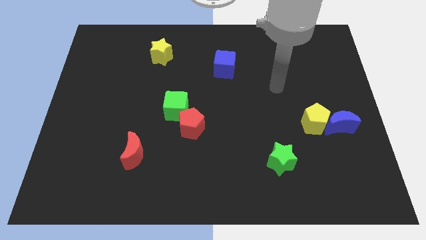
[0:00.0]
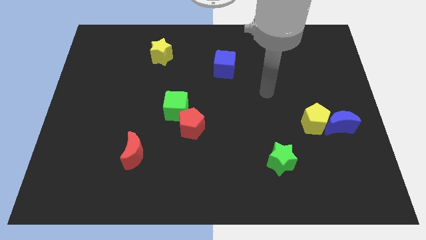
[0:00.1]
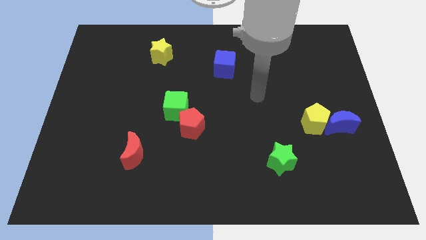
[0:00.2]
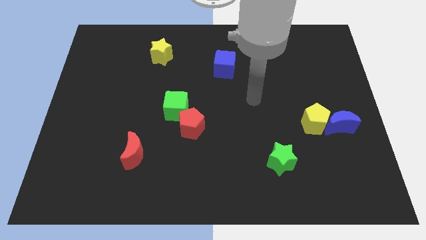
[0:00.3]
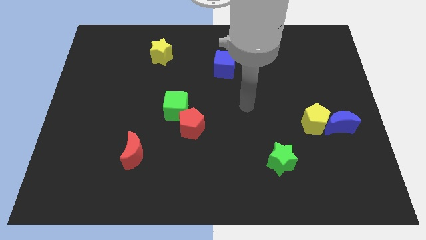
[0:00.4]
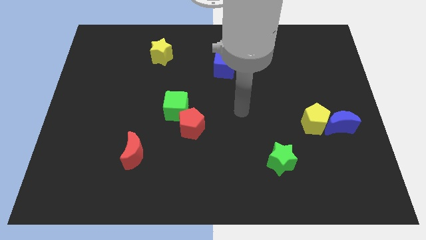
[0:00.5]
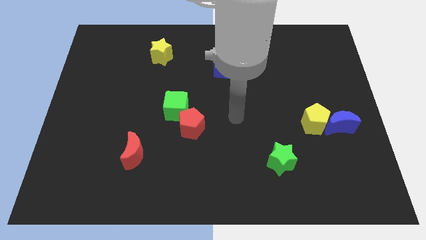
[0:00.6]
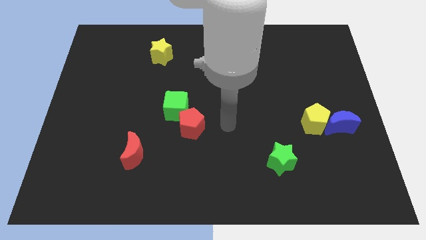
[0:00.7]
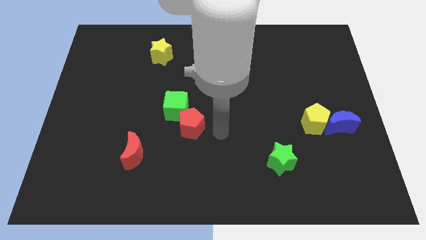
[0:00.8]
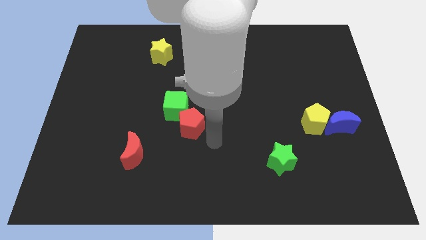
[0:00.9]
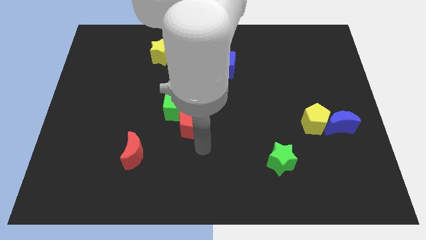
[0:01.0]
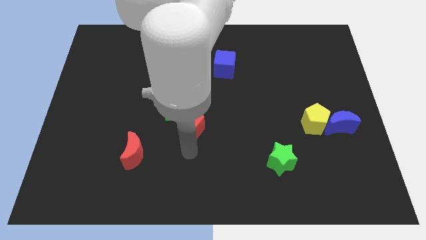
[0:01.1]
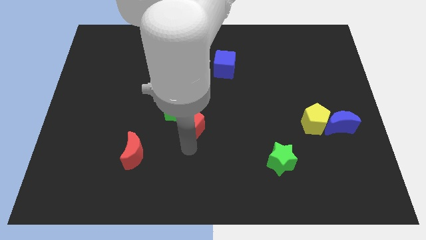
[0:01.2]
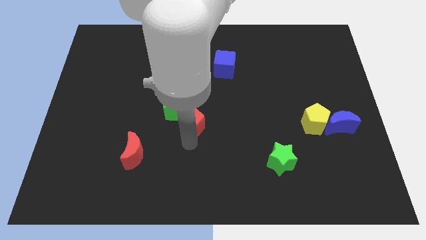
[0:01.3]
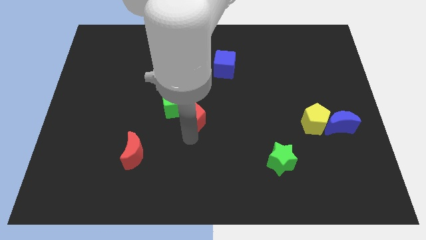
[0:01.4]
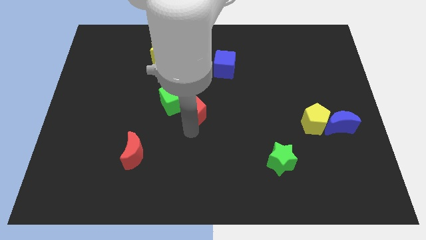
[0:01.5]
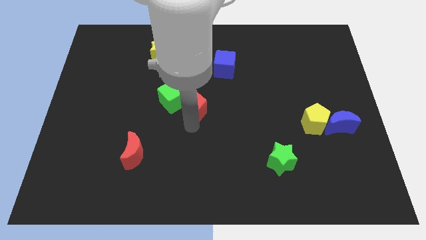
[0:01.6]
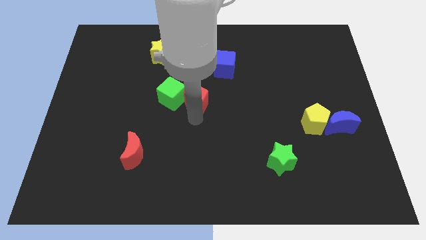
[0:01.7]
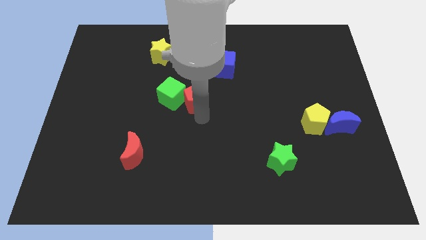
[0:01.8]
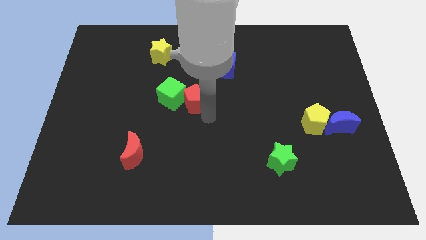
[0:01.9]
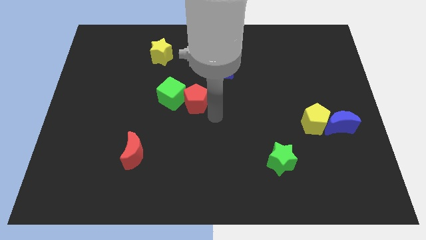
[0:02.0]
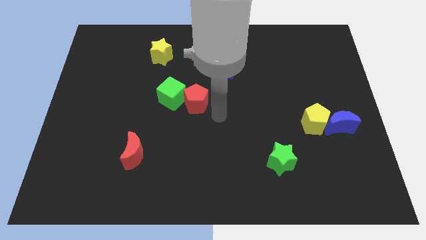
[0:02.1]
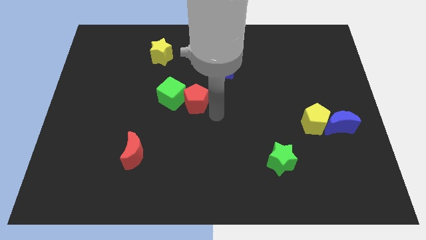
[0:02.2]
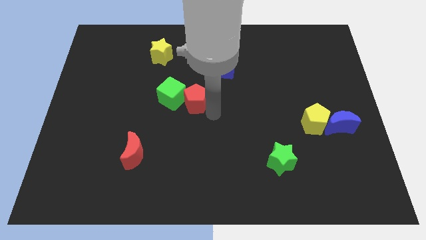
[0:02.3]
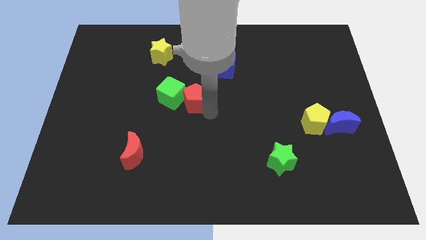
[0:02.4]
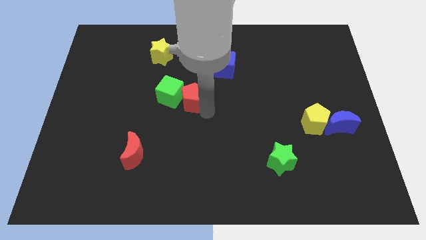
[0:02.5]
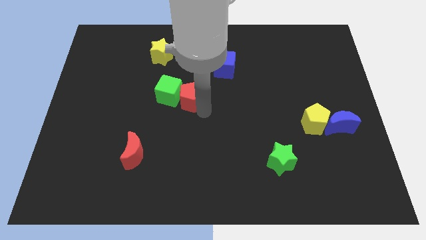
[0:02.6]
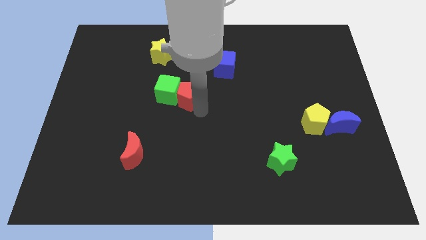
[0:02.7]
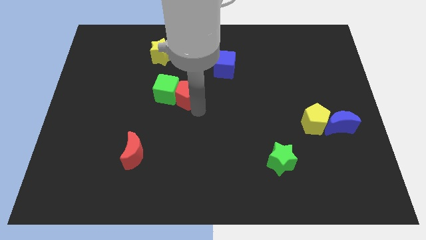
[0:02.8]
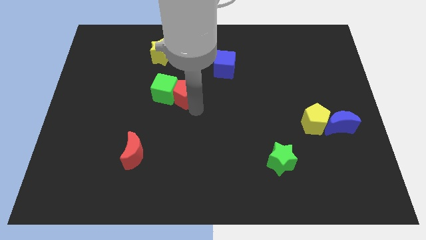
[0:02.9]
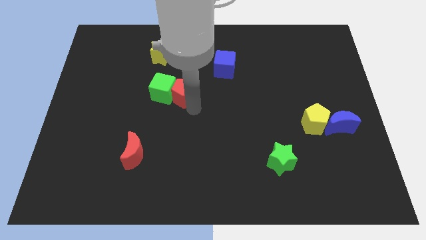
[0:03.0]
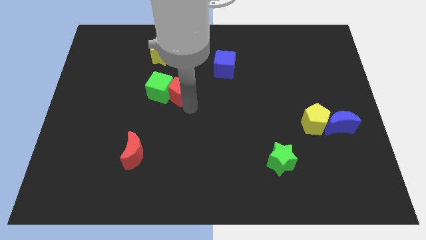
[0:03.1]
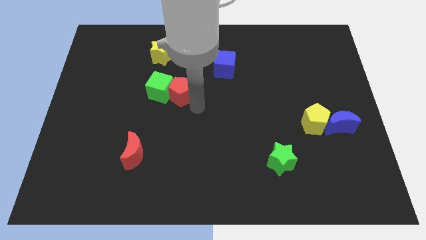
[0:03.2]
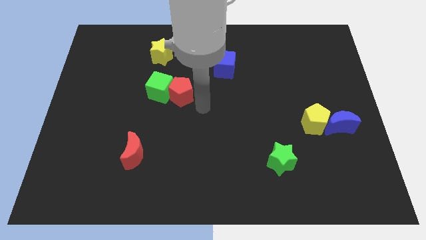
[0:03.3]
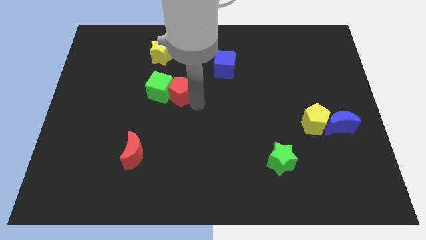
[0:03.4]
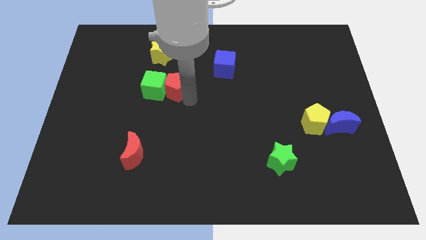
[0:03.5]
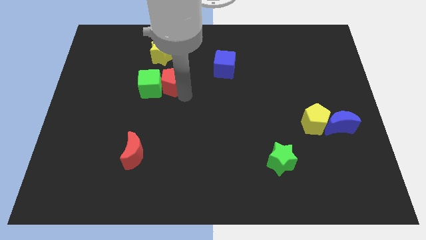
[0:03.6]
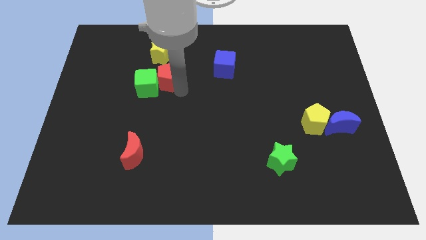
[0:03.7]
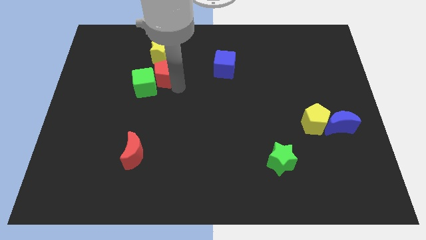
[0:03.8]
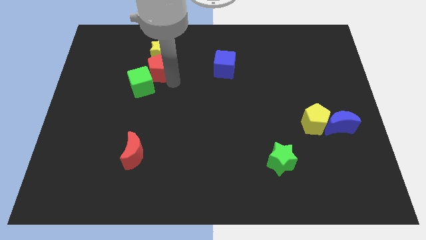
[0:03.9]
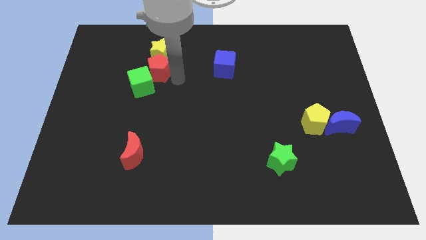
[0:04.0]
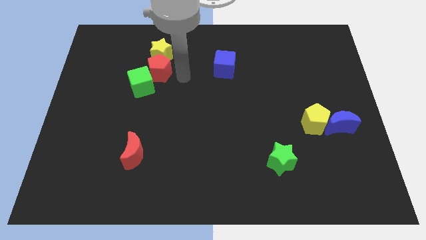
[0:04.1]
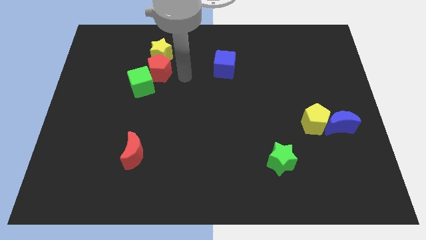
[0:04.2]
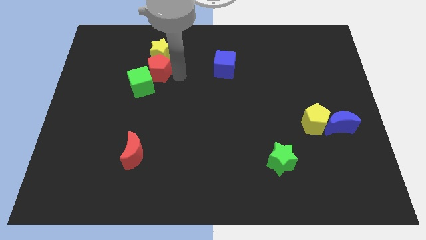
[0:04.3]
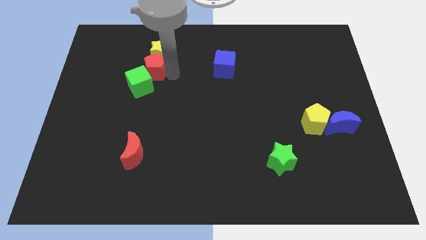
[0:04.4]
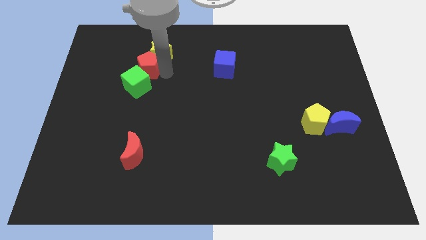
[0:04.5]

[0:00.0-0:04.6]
slide the red pentagon up and left diagonally

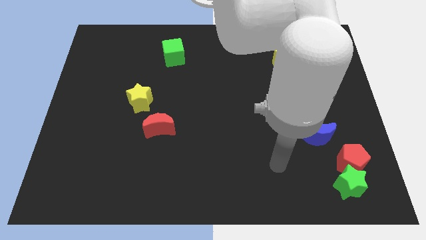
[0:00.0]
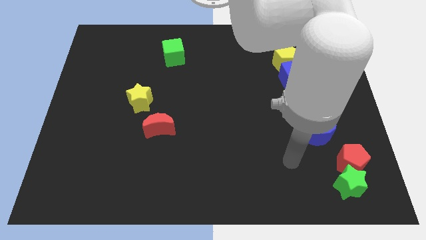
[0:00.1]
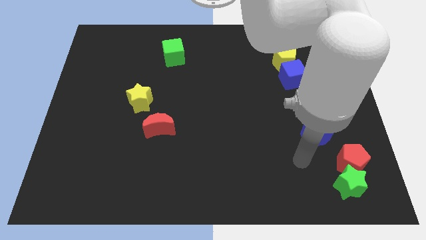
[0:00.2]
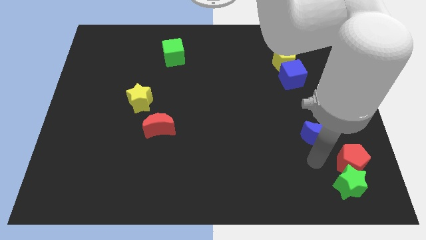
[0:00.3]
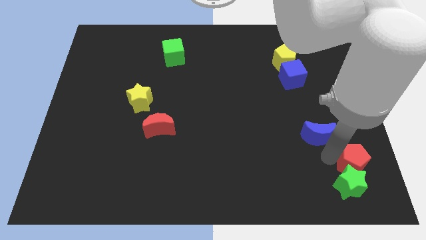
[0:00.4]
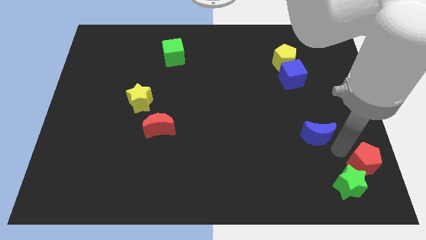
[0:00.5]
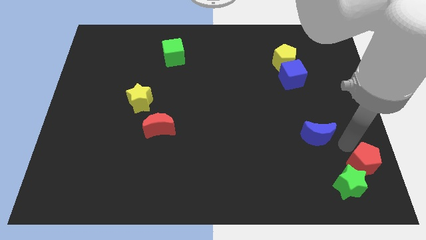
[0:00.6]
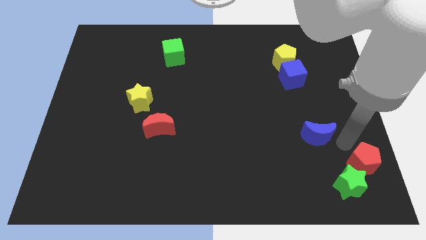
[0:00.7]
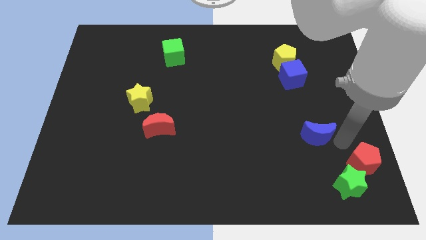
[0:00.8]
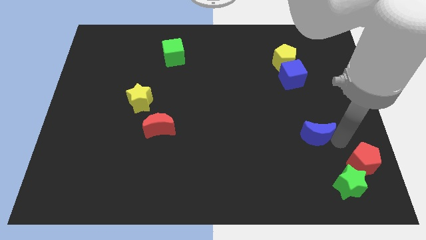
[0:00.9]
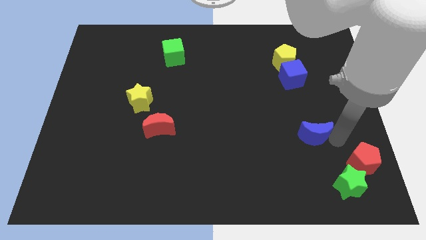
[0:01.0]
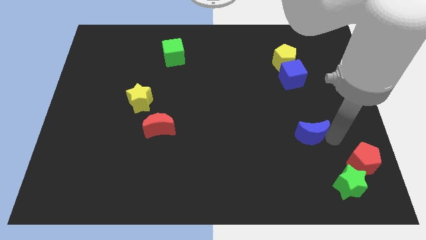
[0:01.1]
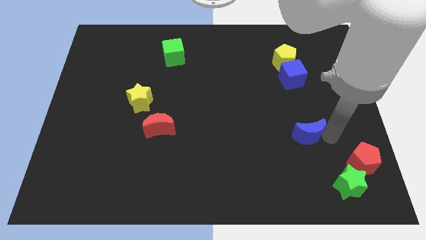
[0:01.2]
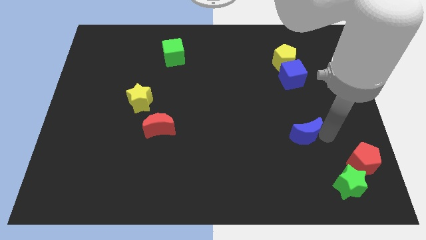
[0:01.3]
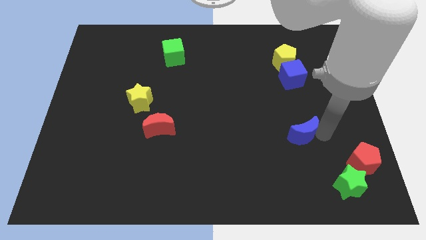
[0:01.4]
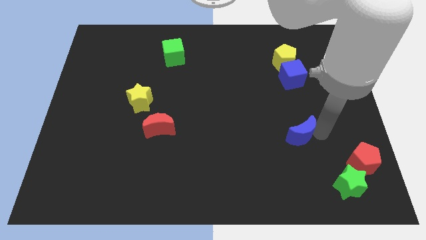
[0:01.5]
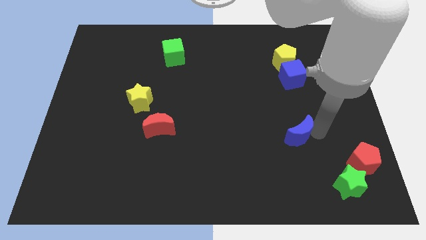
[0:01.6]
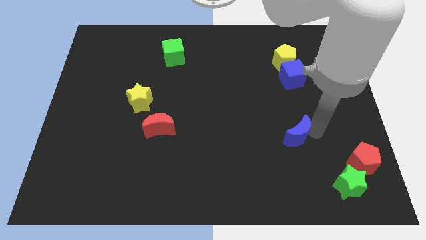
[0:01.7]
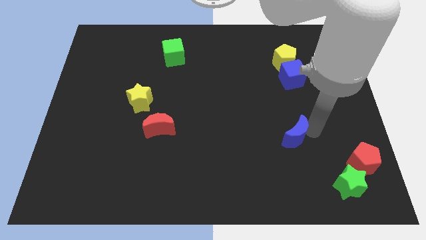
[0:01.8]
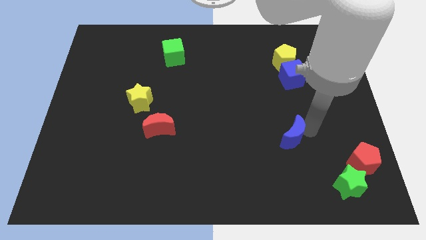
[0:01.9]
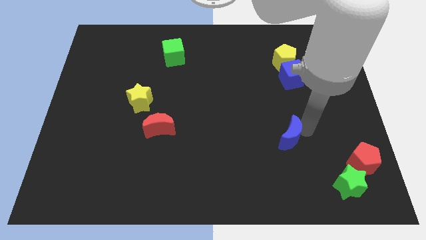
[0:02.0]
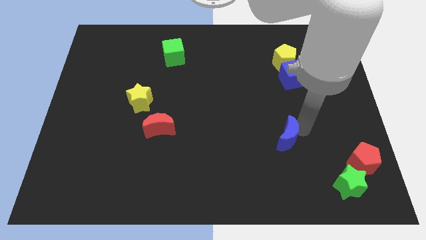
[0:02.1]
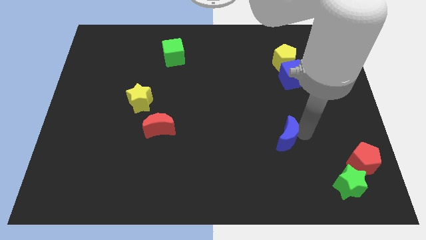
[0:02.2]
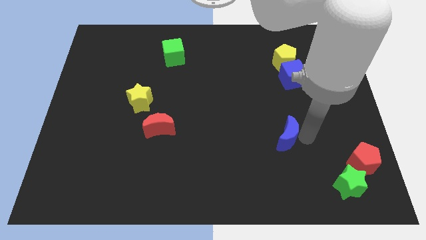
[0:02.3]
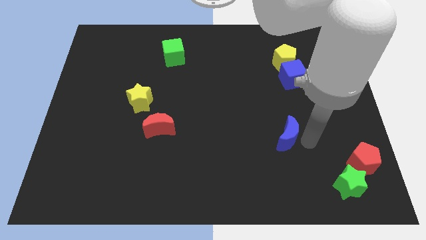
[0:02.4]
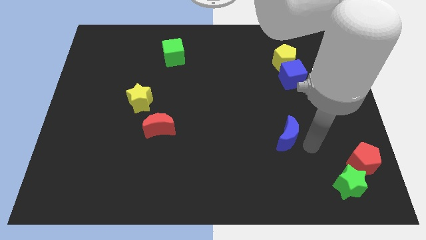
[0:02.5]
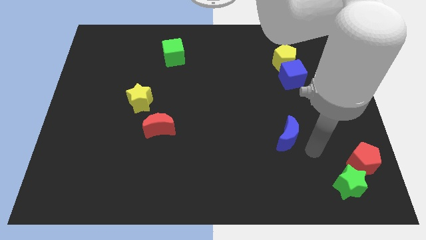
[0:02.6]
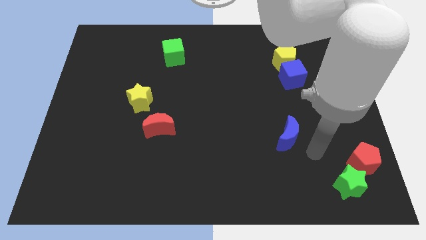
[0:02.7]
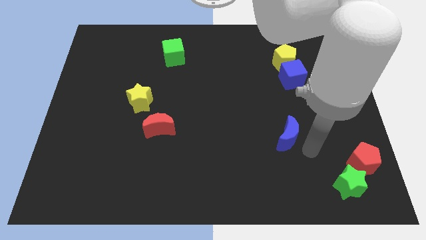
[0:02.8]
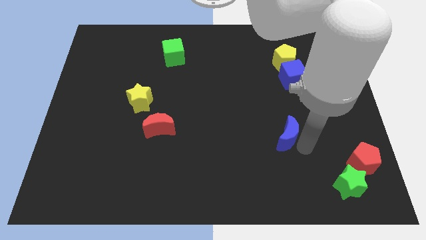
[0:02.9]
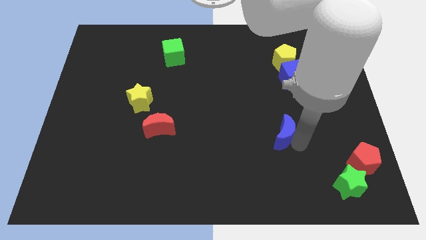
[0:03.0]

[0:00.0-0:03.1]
slide the blue moon to the left a bit

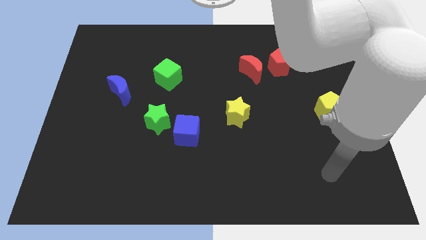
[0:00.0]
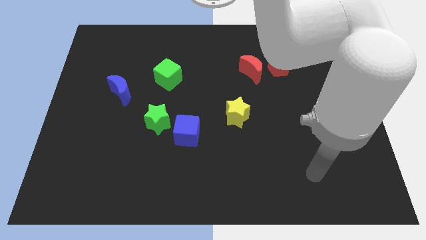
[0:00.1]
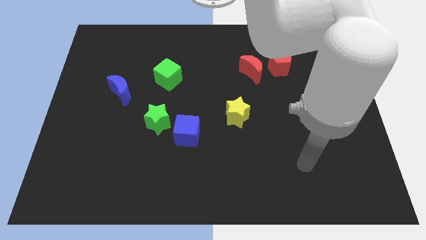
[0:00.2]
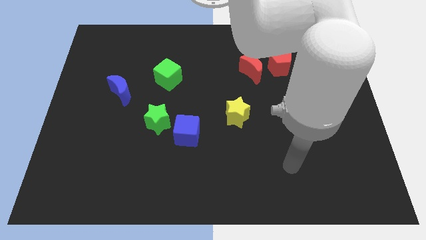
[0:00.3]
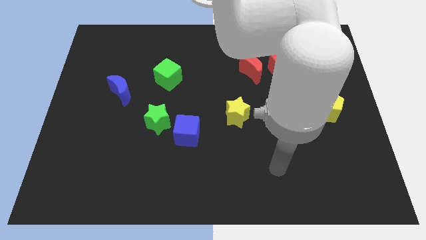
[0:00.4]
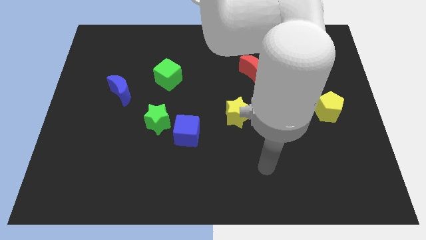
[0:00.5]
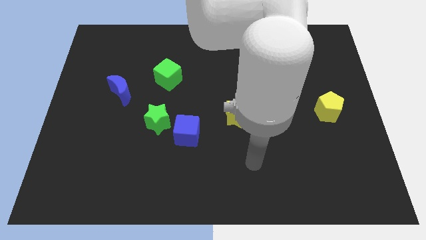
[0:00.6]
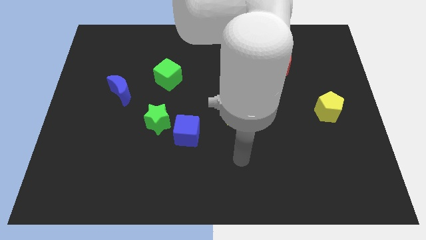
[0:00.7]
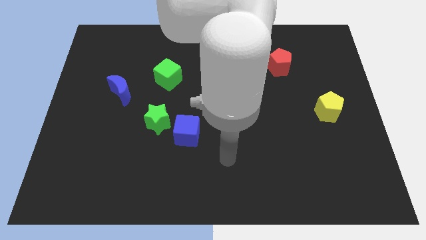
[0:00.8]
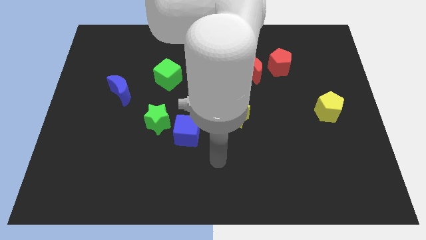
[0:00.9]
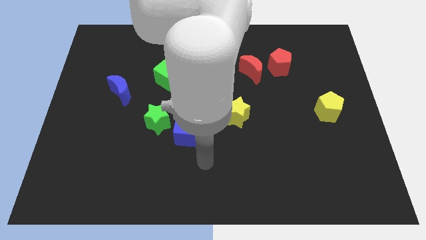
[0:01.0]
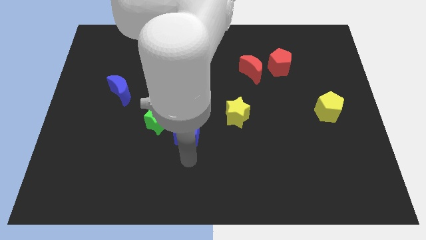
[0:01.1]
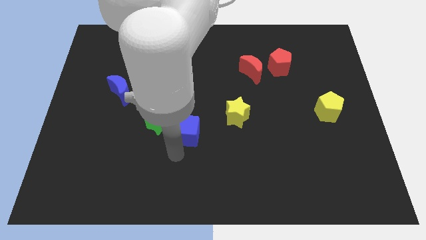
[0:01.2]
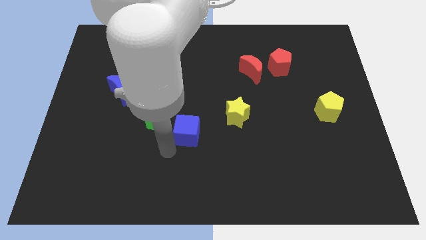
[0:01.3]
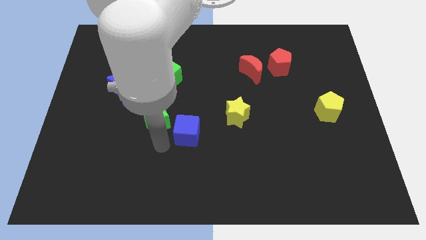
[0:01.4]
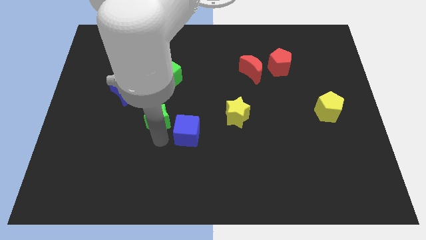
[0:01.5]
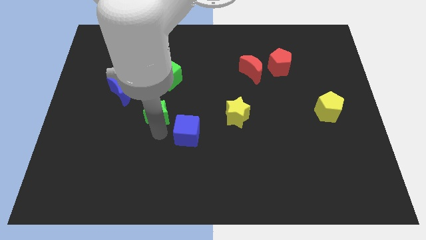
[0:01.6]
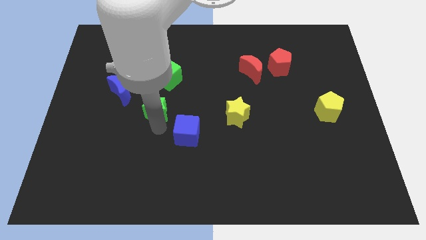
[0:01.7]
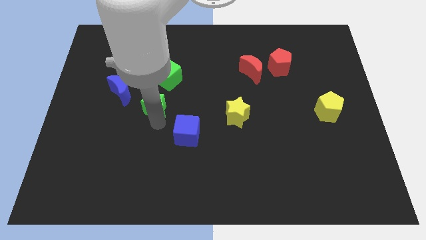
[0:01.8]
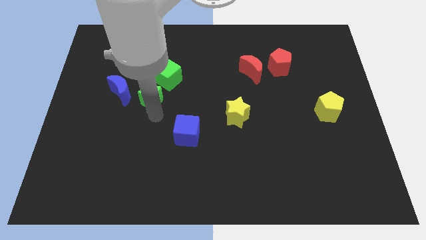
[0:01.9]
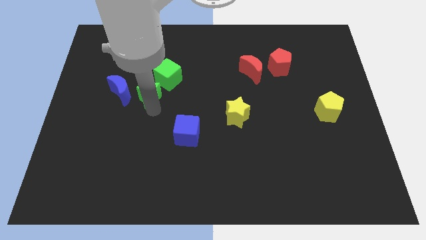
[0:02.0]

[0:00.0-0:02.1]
push the green star slightly upwards
